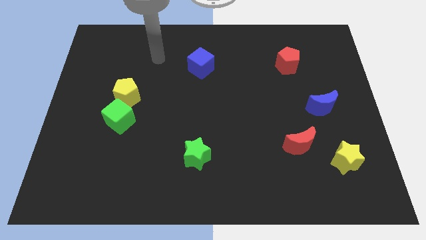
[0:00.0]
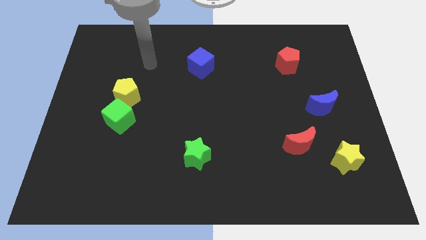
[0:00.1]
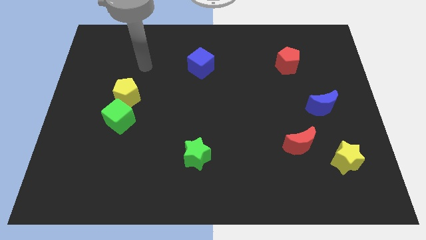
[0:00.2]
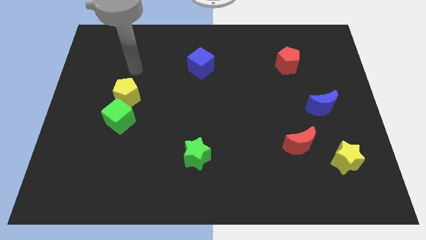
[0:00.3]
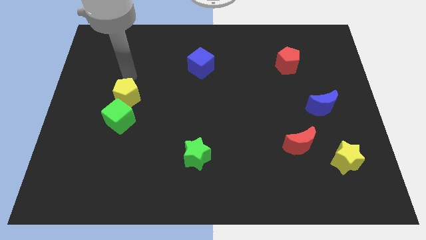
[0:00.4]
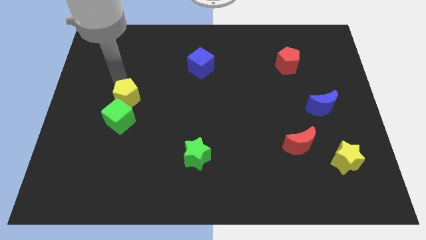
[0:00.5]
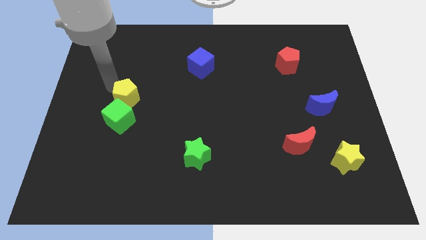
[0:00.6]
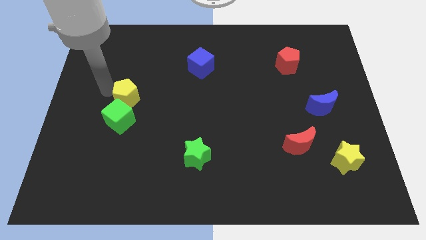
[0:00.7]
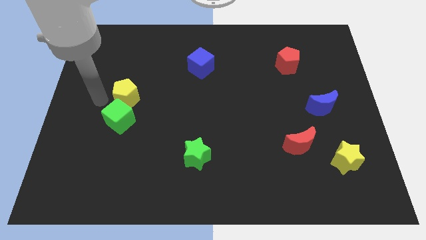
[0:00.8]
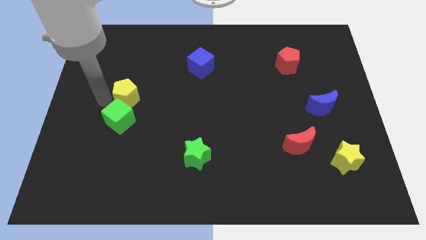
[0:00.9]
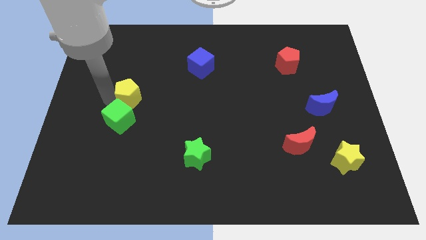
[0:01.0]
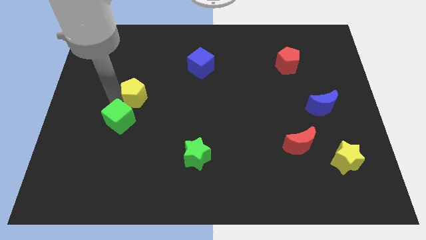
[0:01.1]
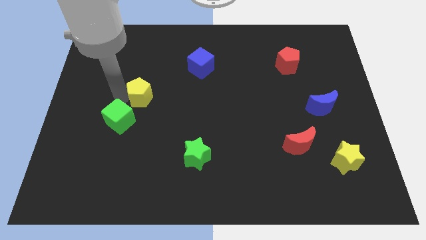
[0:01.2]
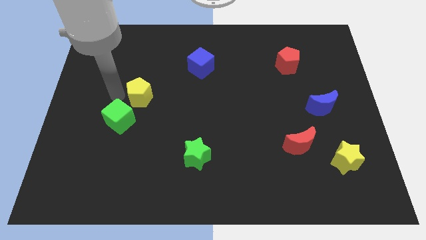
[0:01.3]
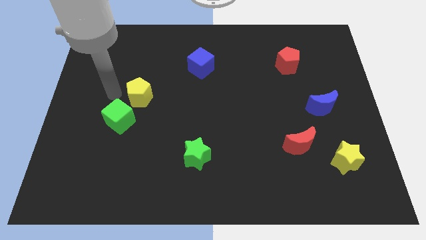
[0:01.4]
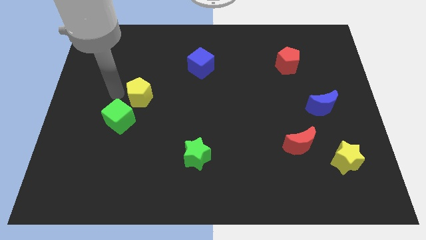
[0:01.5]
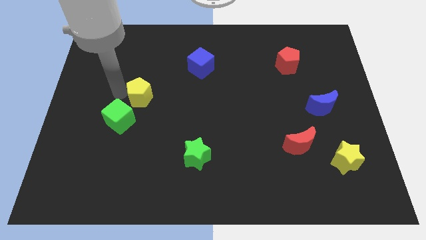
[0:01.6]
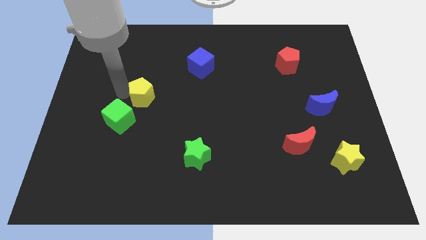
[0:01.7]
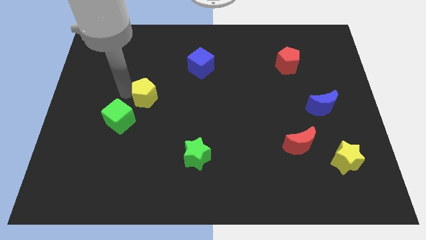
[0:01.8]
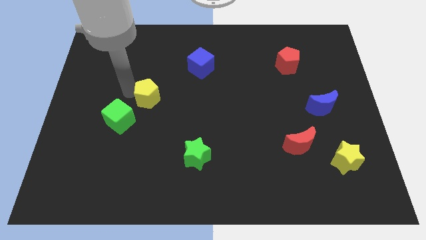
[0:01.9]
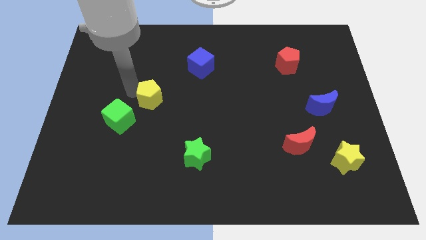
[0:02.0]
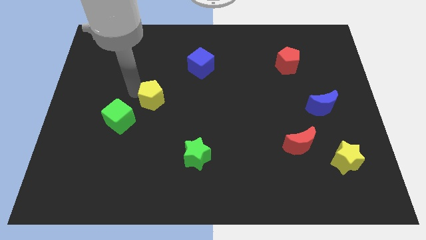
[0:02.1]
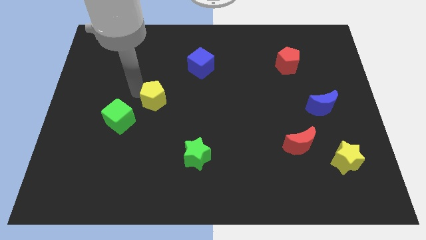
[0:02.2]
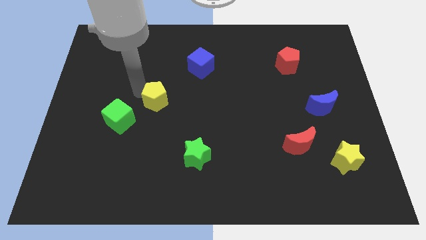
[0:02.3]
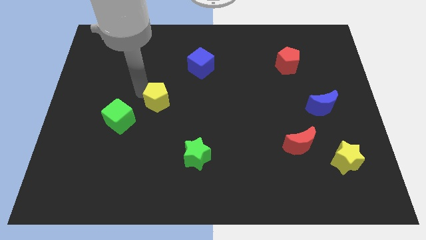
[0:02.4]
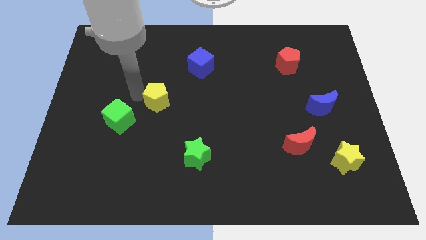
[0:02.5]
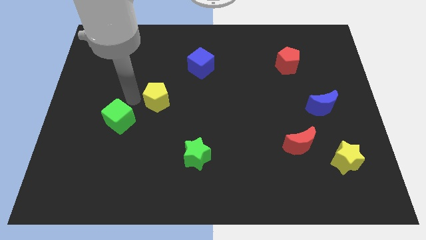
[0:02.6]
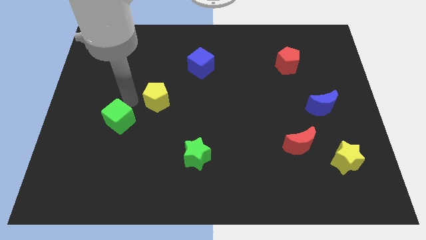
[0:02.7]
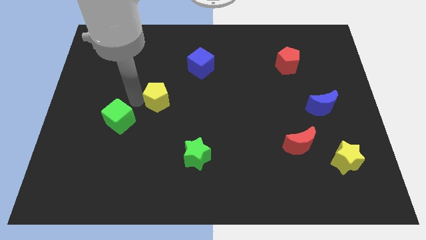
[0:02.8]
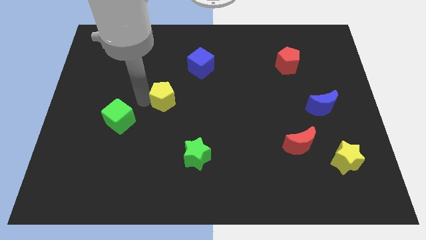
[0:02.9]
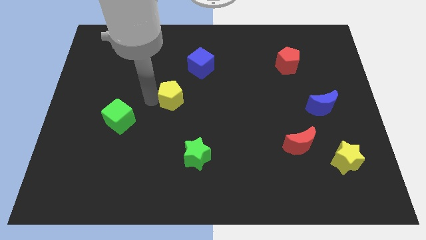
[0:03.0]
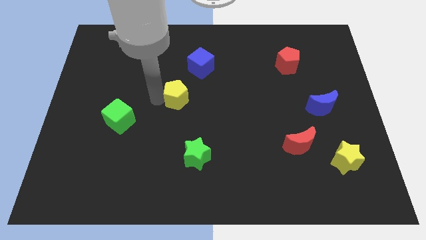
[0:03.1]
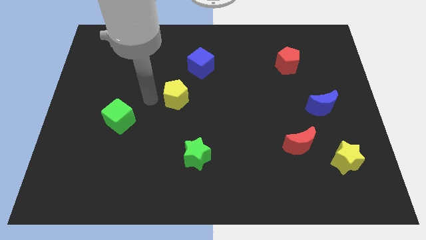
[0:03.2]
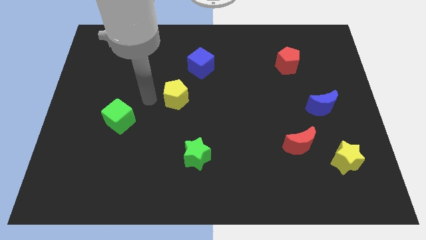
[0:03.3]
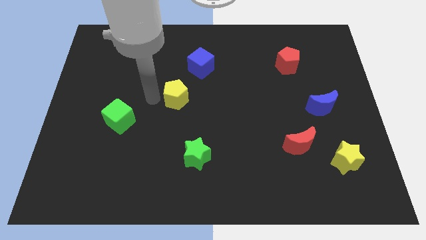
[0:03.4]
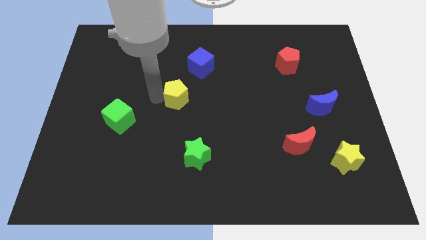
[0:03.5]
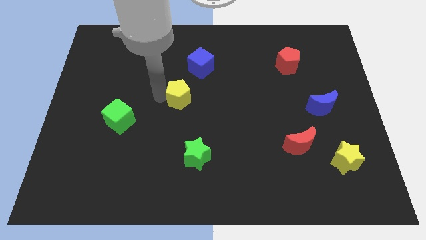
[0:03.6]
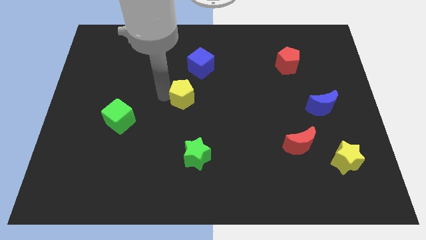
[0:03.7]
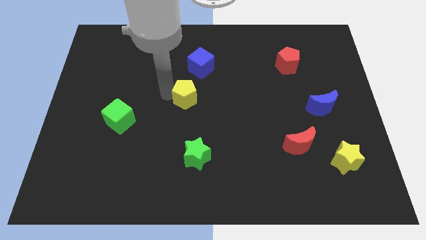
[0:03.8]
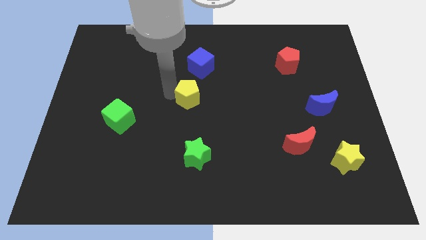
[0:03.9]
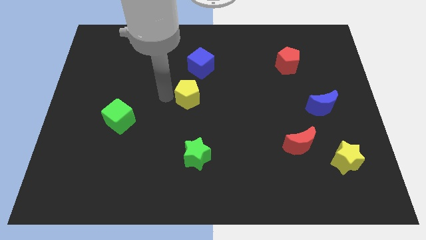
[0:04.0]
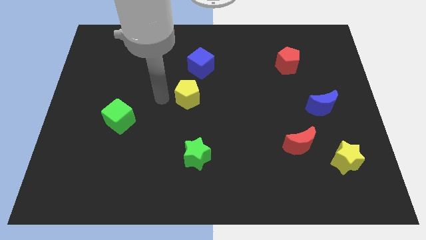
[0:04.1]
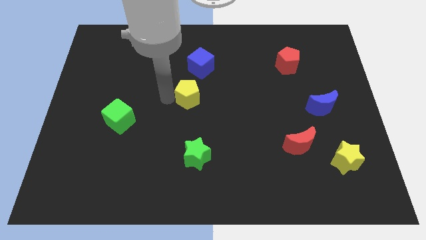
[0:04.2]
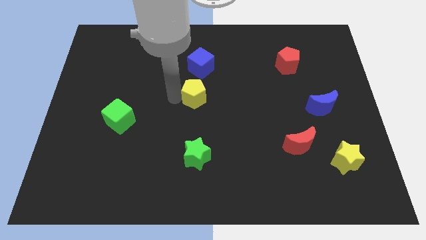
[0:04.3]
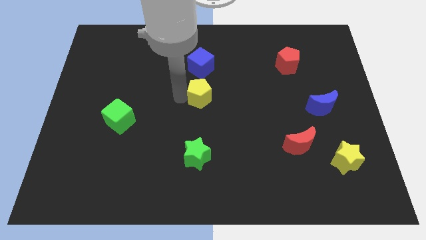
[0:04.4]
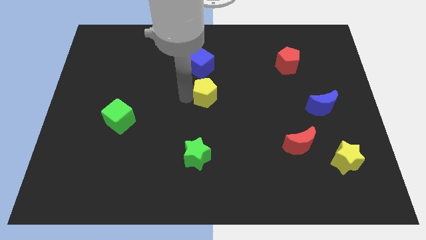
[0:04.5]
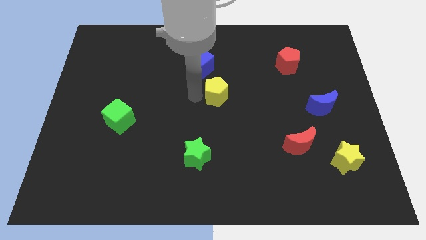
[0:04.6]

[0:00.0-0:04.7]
slide the yellow pentagon to the right

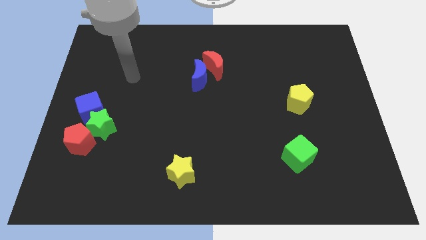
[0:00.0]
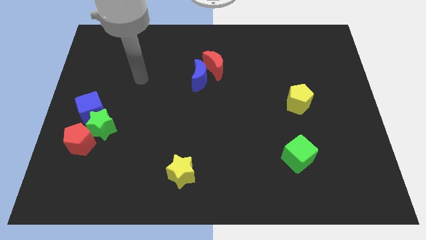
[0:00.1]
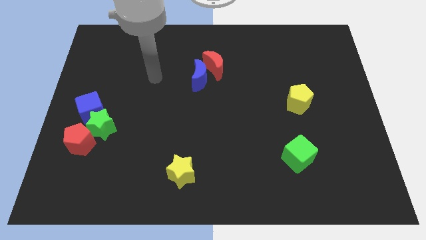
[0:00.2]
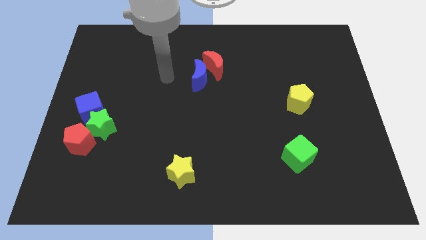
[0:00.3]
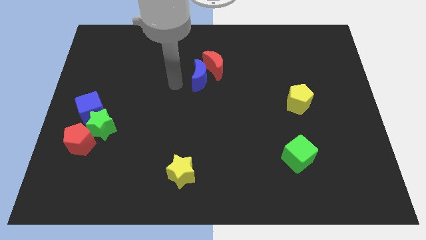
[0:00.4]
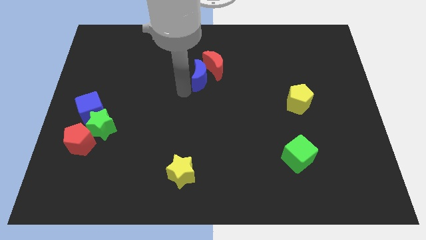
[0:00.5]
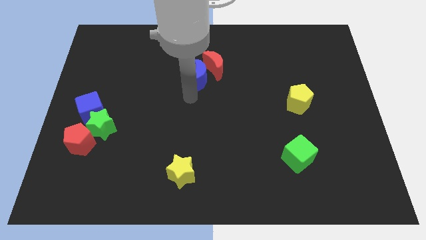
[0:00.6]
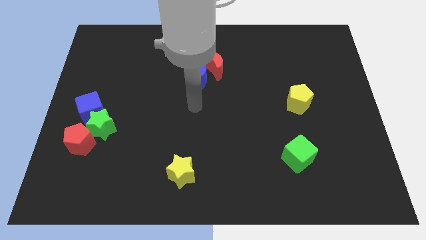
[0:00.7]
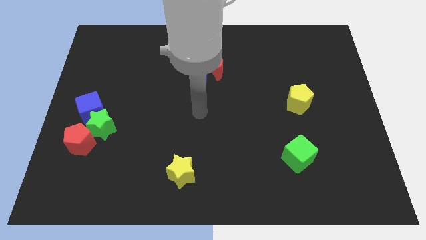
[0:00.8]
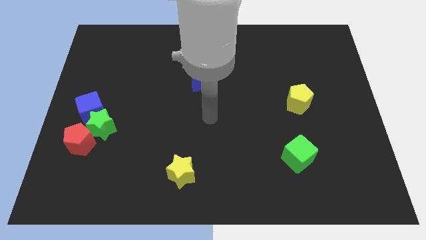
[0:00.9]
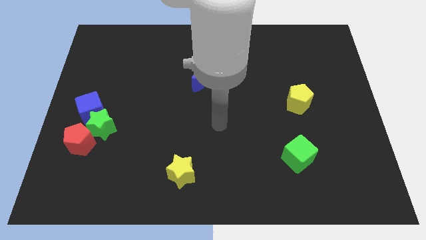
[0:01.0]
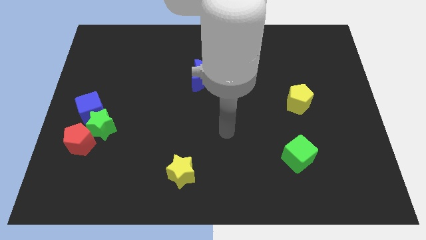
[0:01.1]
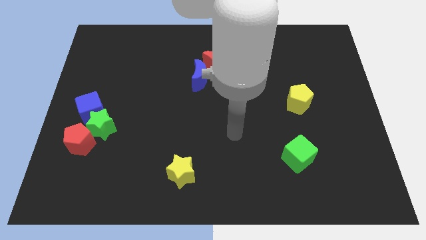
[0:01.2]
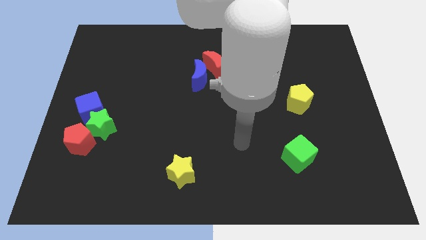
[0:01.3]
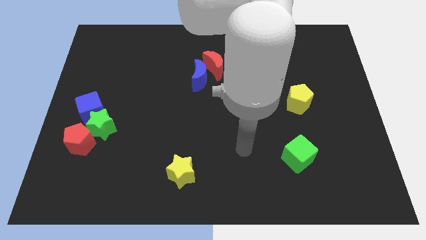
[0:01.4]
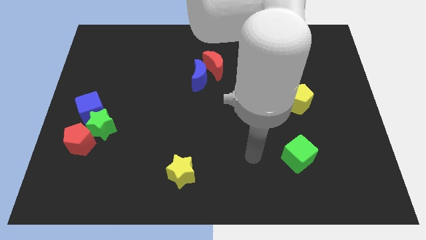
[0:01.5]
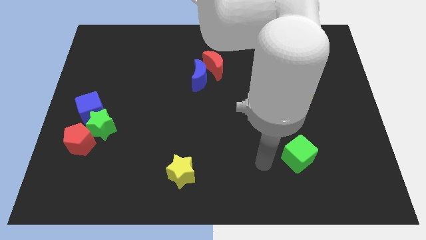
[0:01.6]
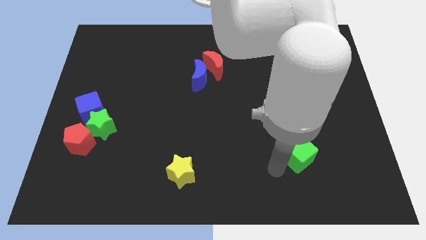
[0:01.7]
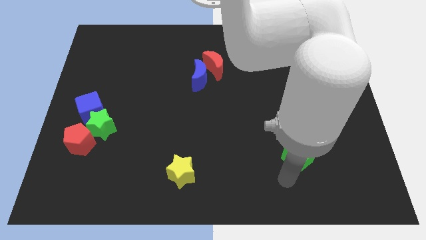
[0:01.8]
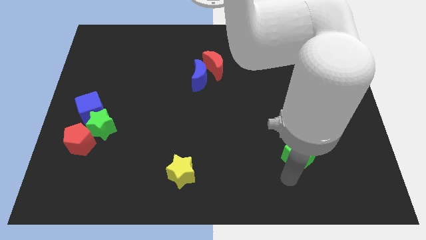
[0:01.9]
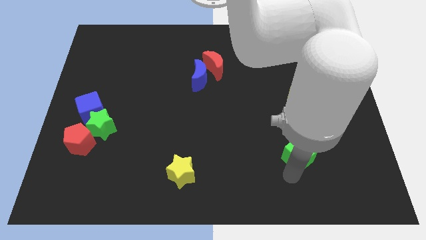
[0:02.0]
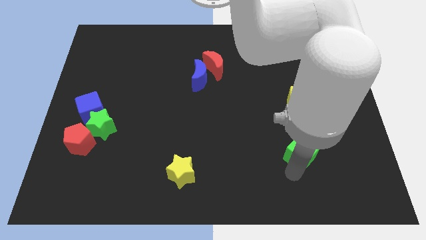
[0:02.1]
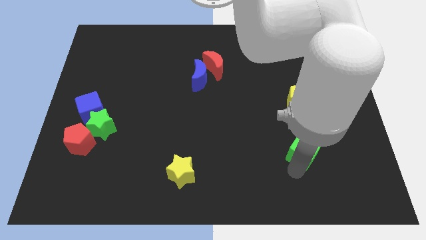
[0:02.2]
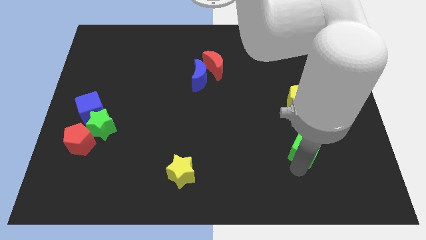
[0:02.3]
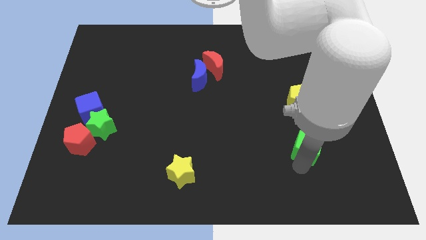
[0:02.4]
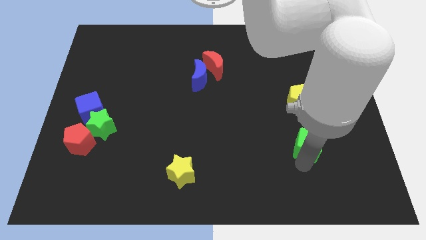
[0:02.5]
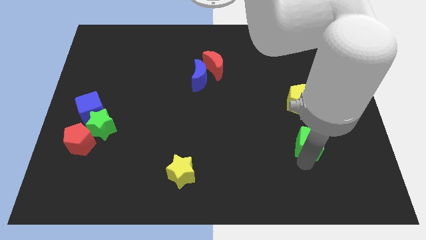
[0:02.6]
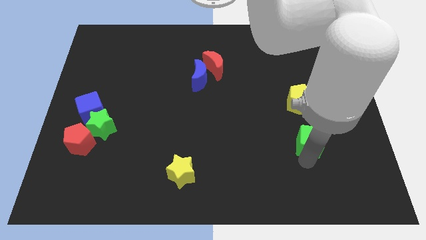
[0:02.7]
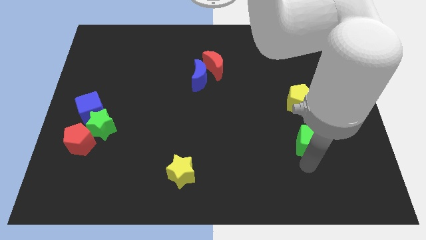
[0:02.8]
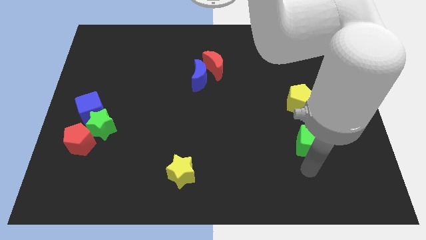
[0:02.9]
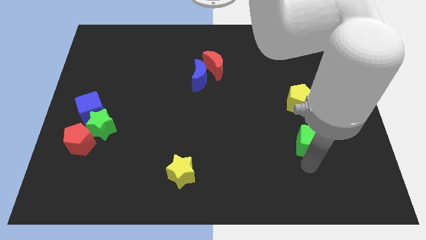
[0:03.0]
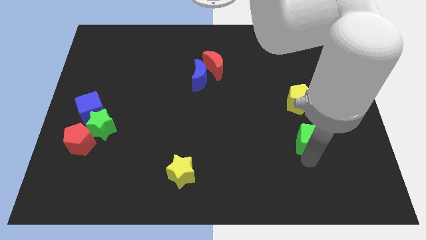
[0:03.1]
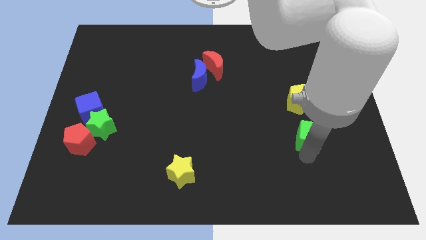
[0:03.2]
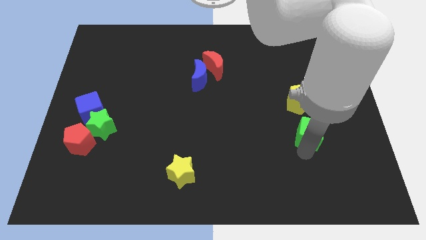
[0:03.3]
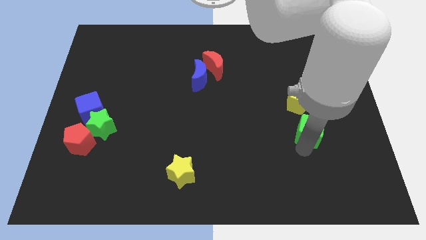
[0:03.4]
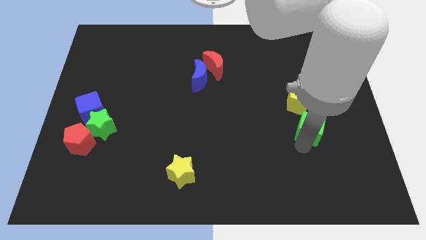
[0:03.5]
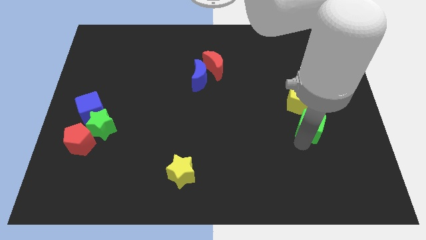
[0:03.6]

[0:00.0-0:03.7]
slightly push the green cube up
